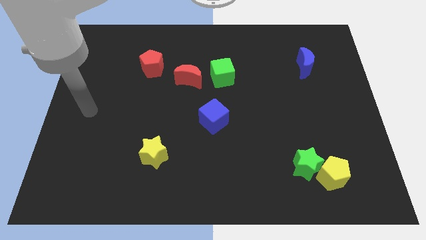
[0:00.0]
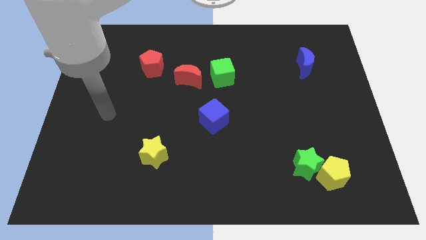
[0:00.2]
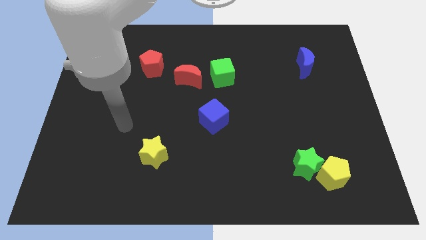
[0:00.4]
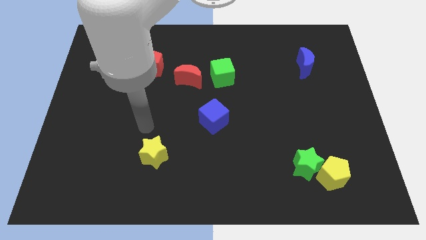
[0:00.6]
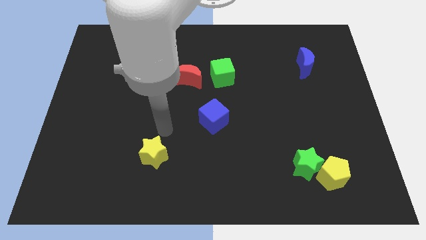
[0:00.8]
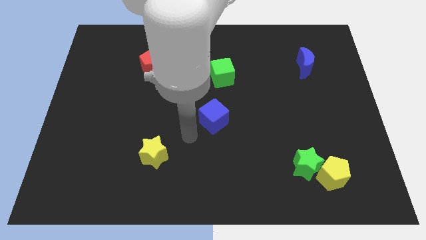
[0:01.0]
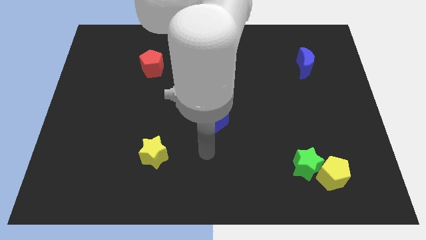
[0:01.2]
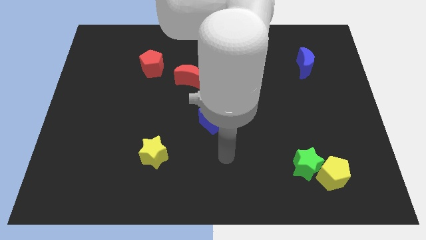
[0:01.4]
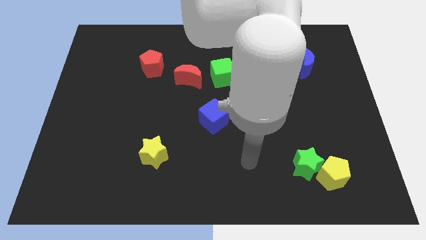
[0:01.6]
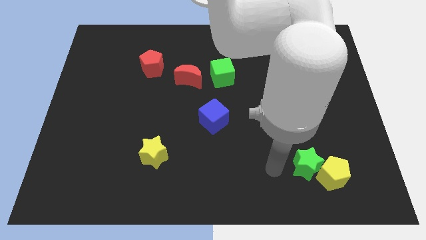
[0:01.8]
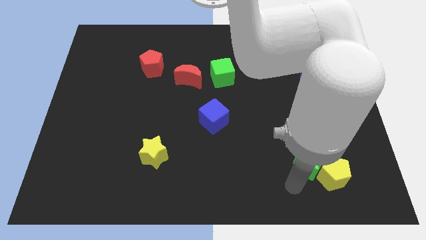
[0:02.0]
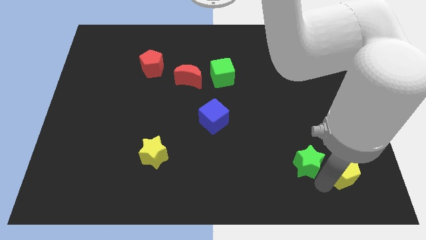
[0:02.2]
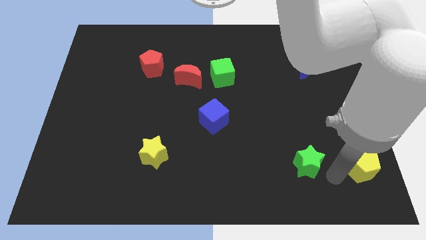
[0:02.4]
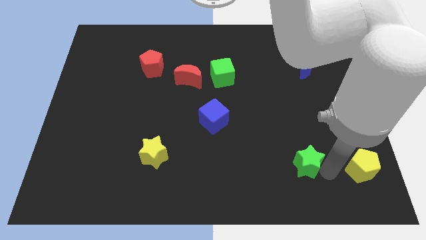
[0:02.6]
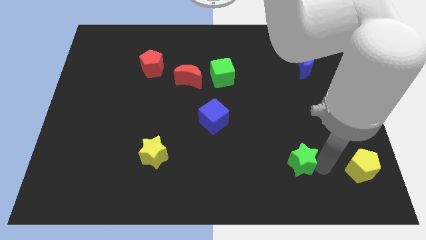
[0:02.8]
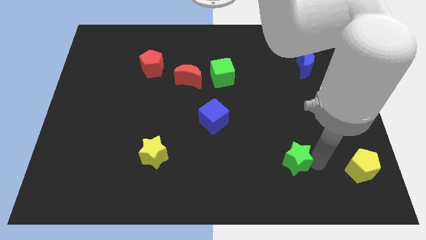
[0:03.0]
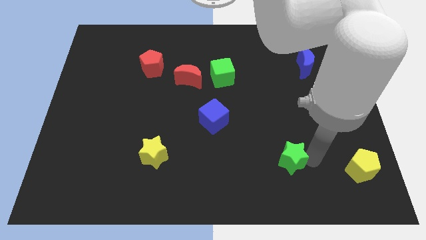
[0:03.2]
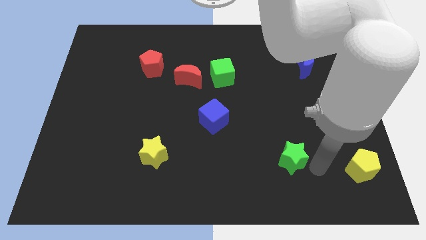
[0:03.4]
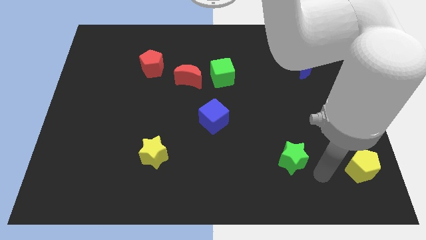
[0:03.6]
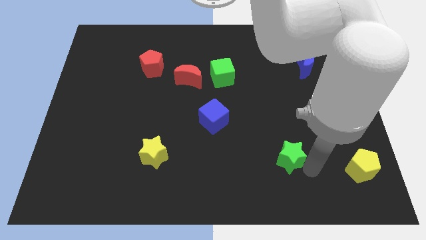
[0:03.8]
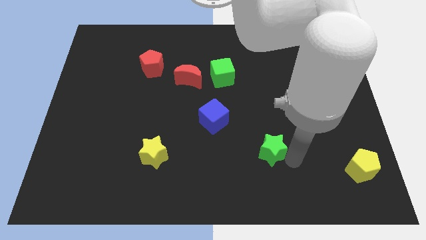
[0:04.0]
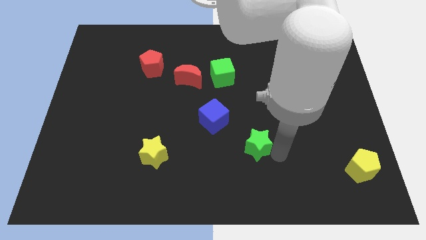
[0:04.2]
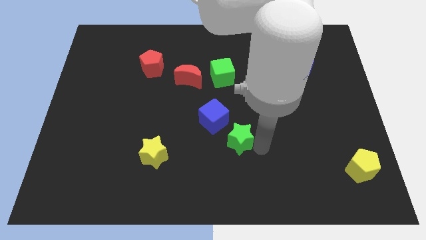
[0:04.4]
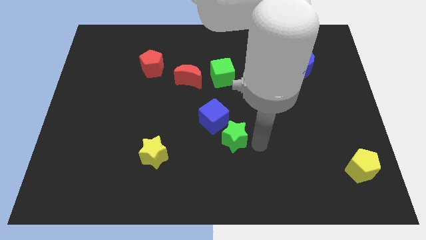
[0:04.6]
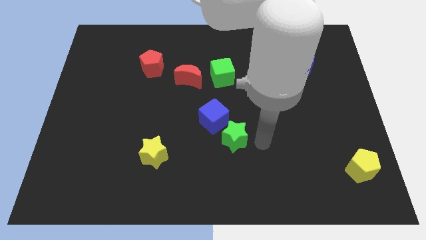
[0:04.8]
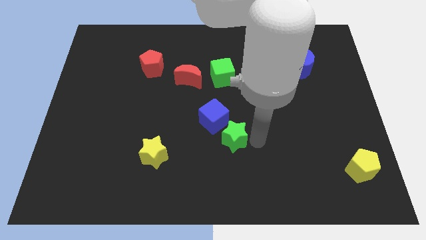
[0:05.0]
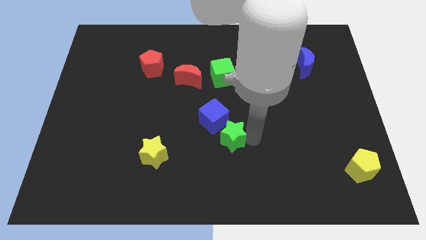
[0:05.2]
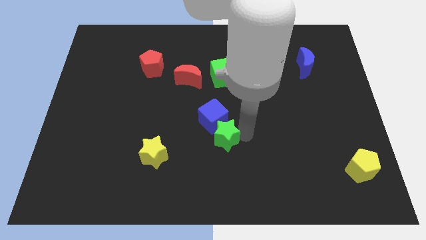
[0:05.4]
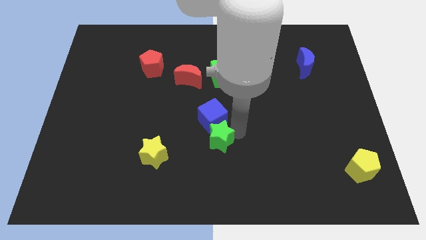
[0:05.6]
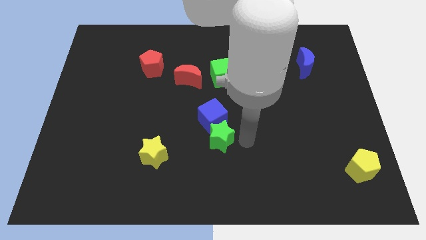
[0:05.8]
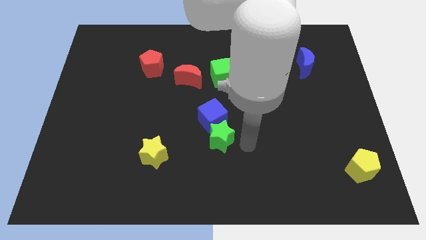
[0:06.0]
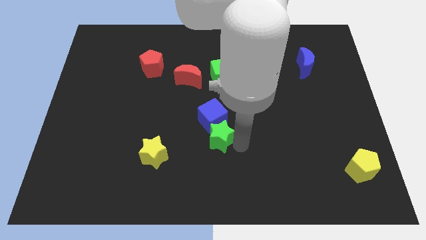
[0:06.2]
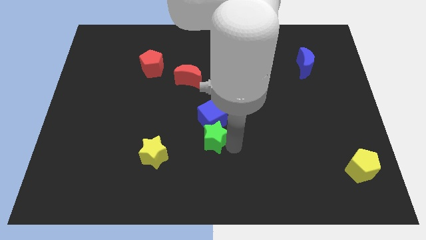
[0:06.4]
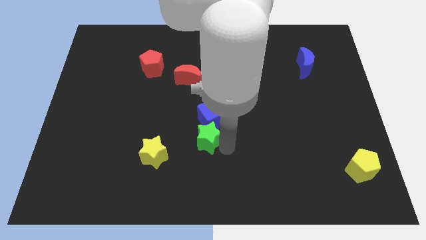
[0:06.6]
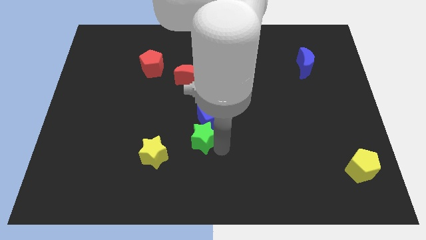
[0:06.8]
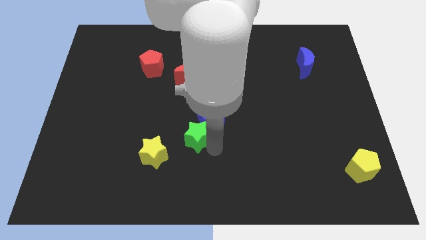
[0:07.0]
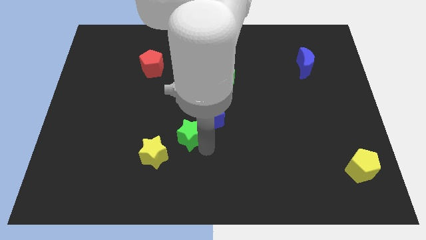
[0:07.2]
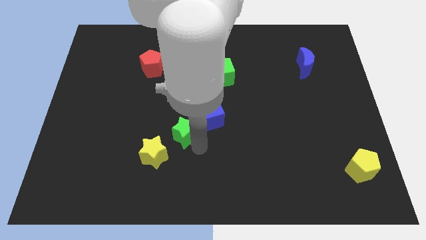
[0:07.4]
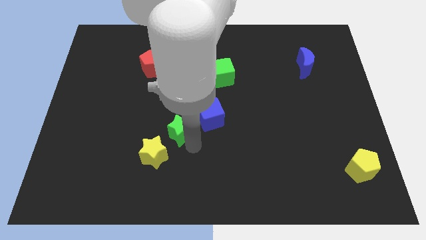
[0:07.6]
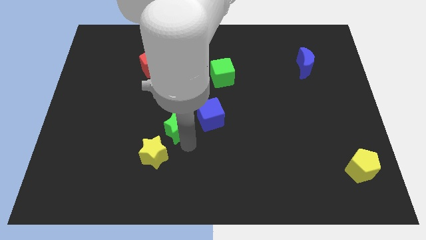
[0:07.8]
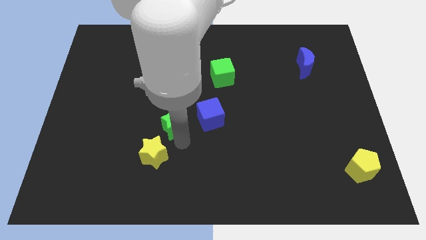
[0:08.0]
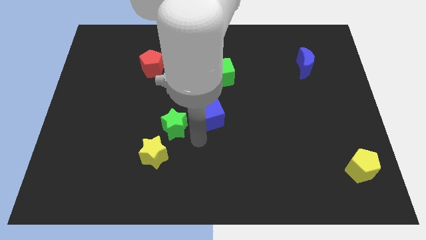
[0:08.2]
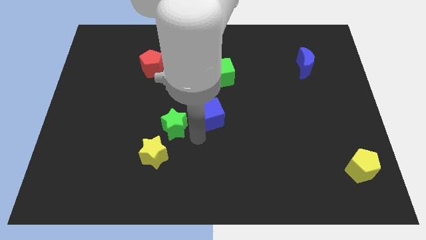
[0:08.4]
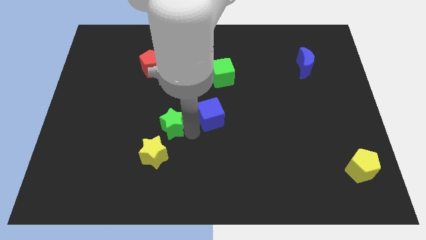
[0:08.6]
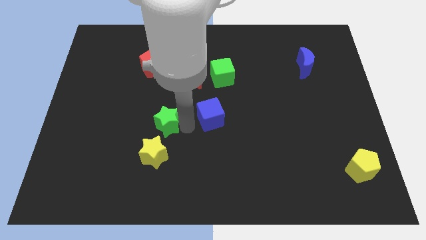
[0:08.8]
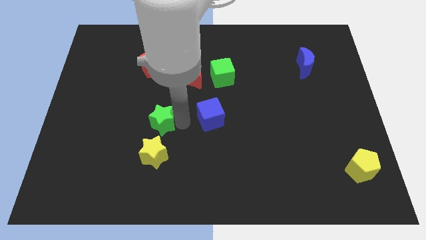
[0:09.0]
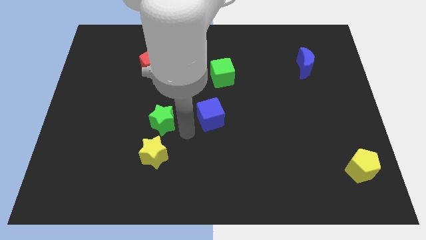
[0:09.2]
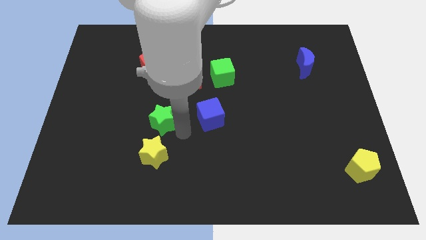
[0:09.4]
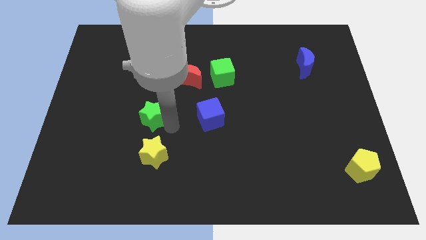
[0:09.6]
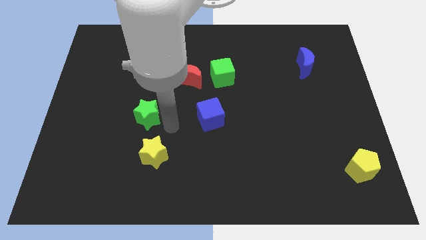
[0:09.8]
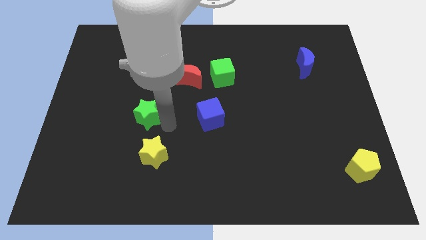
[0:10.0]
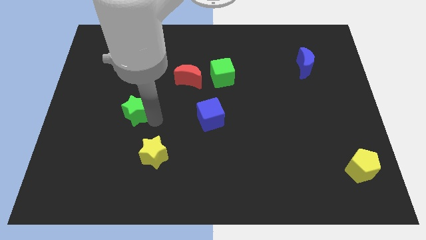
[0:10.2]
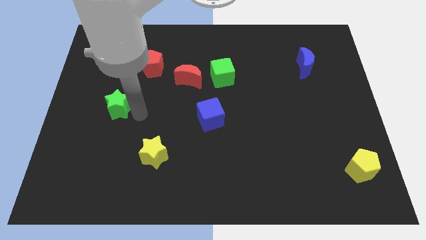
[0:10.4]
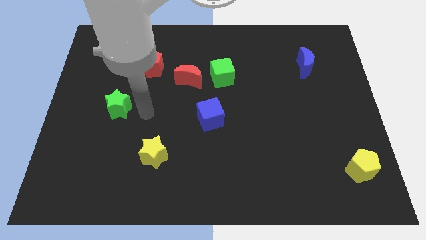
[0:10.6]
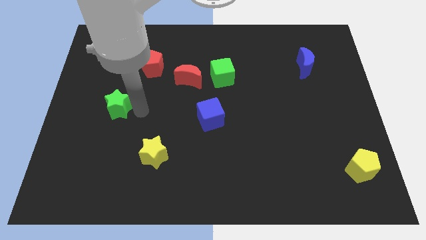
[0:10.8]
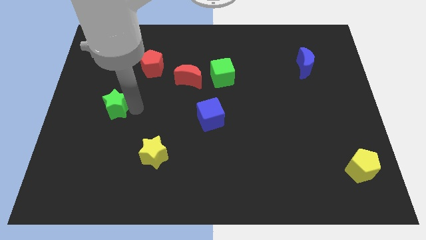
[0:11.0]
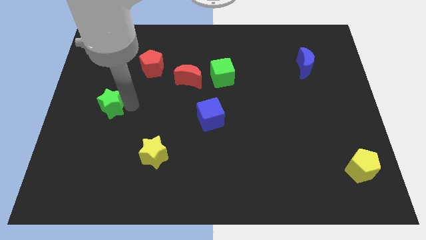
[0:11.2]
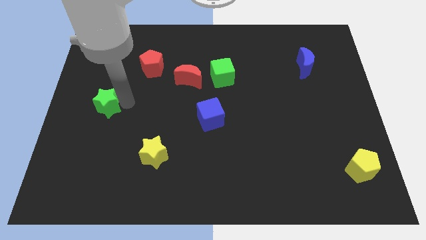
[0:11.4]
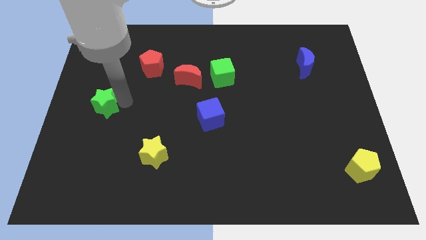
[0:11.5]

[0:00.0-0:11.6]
put the green star to the left side of the board

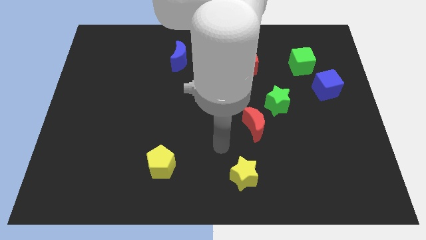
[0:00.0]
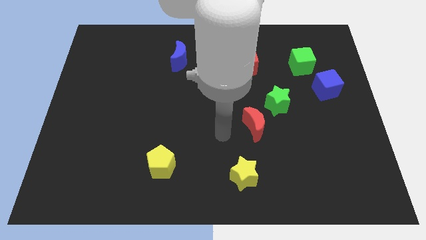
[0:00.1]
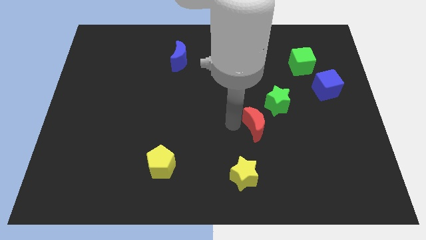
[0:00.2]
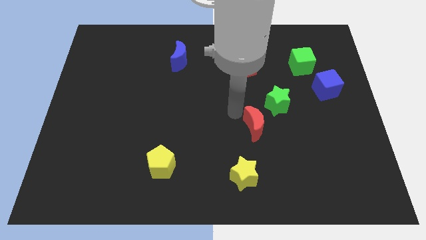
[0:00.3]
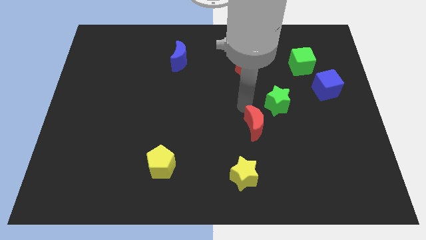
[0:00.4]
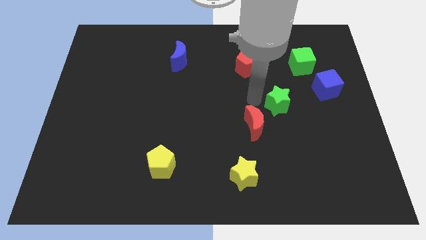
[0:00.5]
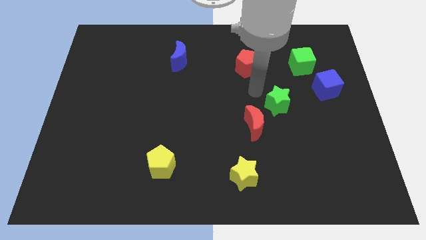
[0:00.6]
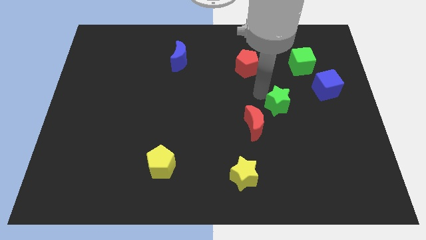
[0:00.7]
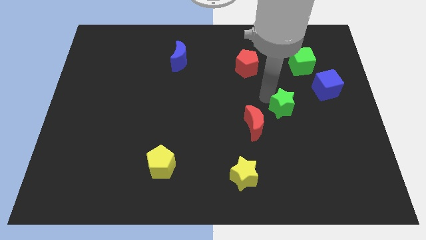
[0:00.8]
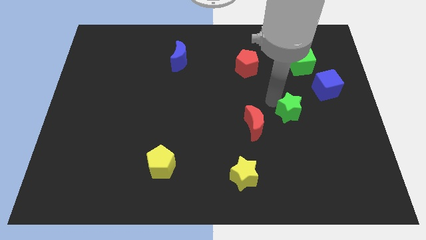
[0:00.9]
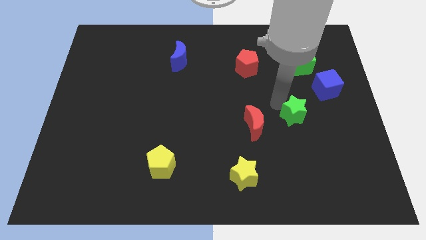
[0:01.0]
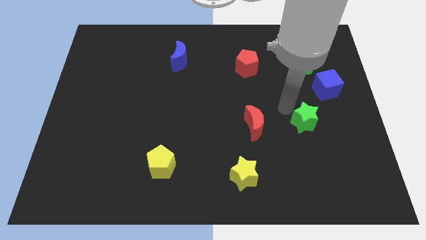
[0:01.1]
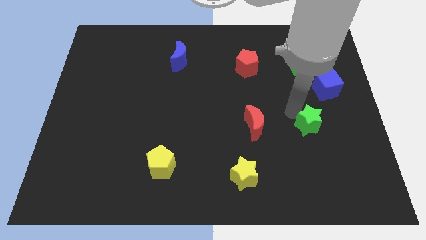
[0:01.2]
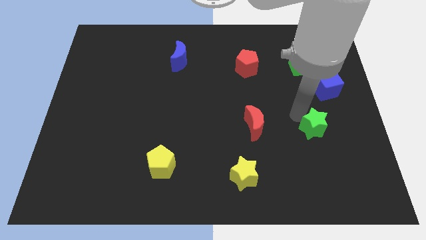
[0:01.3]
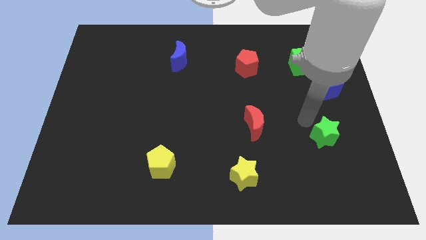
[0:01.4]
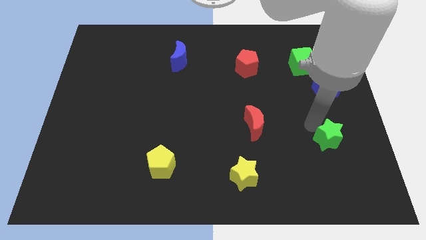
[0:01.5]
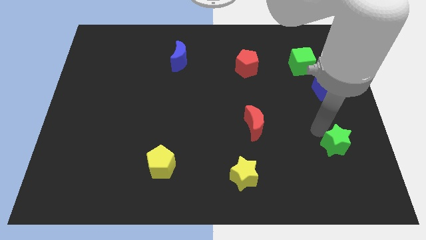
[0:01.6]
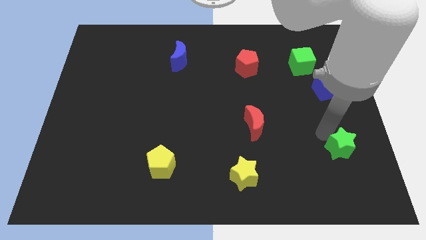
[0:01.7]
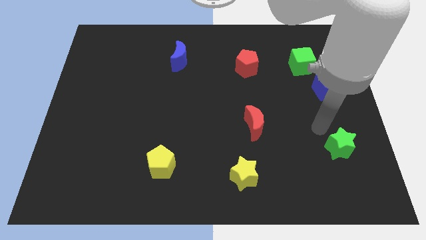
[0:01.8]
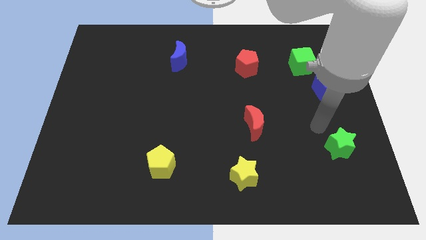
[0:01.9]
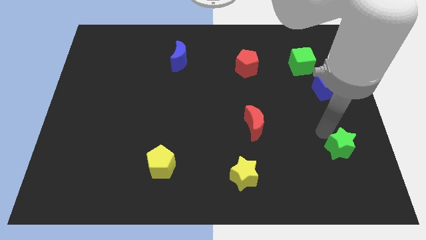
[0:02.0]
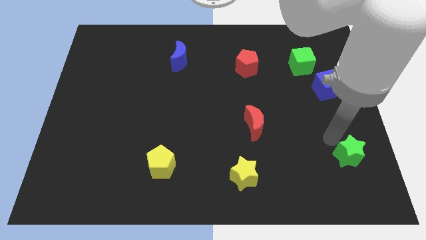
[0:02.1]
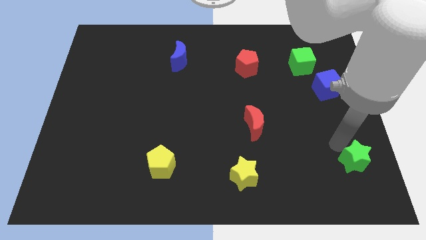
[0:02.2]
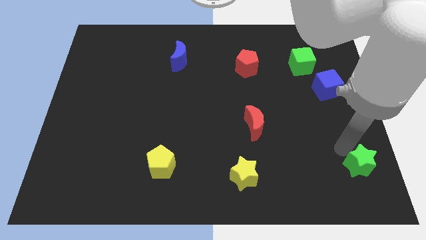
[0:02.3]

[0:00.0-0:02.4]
slide the green star to the bottom right of the board
